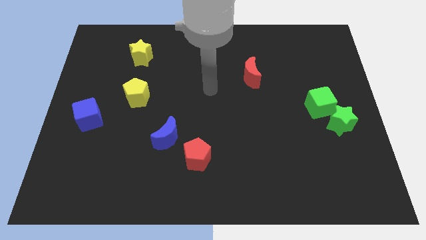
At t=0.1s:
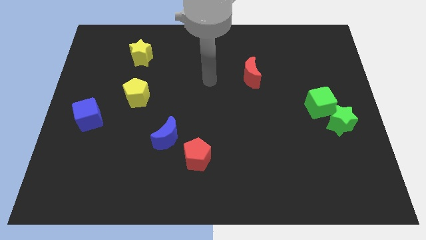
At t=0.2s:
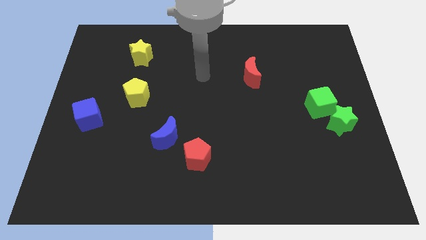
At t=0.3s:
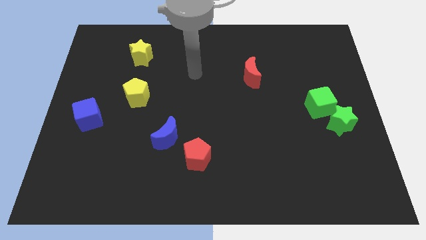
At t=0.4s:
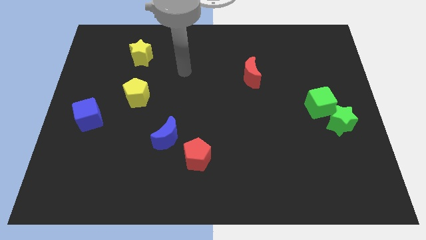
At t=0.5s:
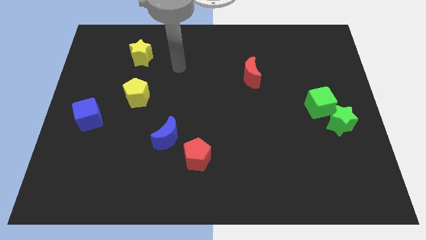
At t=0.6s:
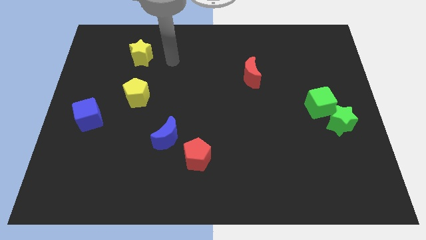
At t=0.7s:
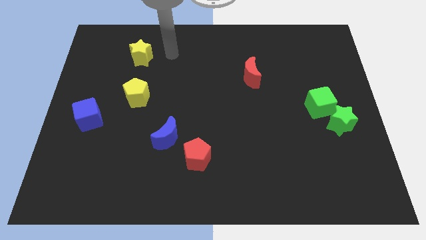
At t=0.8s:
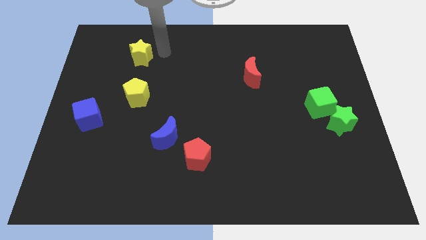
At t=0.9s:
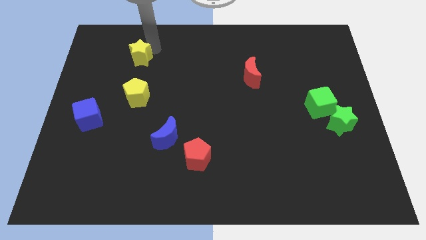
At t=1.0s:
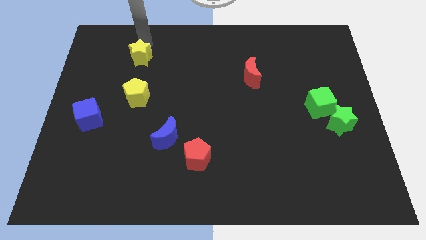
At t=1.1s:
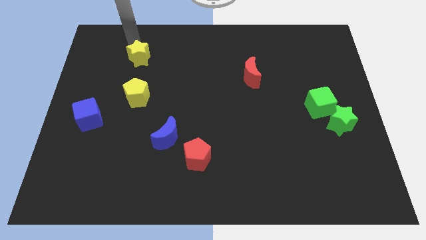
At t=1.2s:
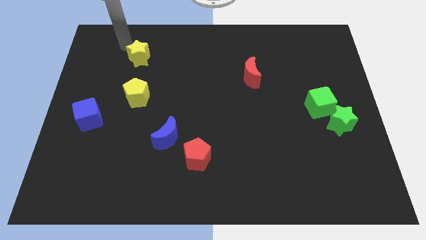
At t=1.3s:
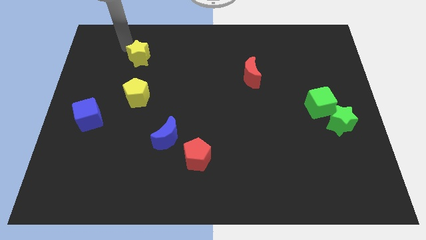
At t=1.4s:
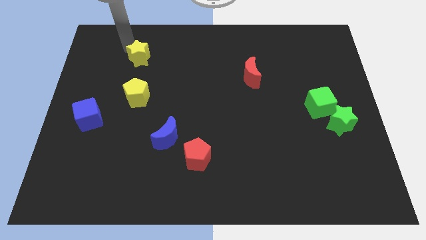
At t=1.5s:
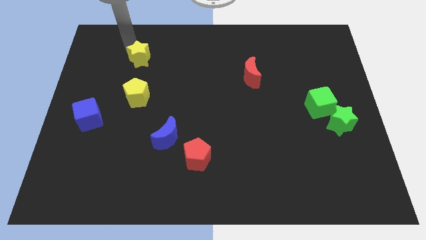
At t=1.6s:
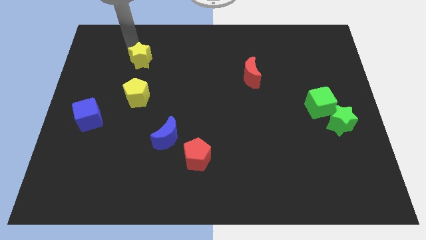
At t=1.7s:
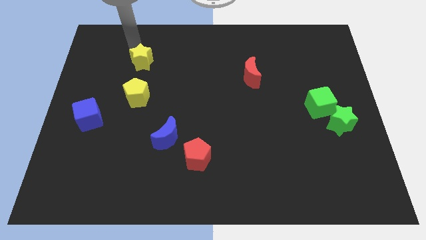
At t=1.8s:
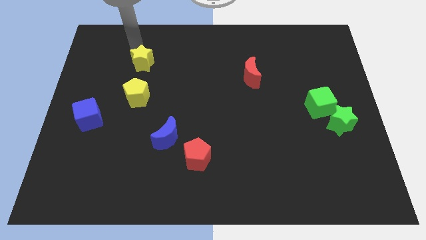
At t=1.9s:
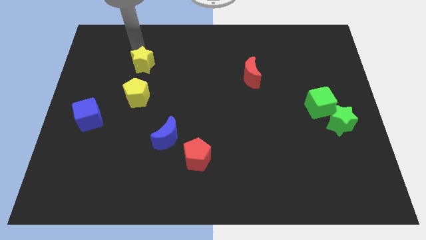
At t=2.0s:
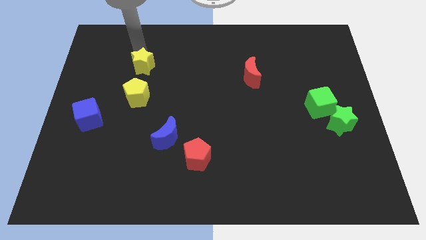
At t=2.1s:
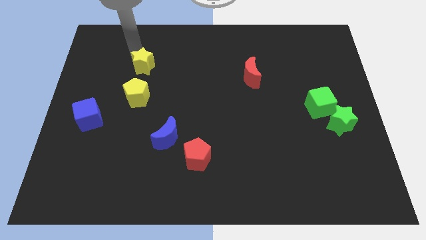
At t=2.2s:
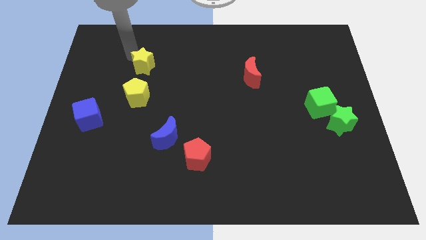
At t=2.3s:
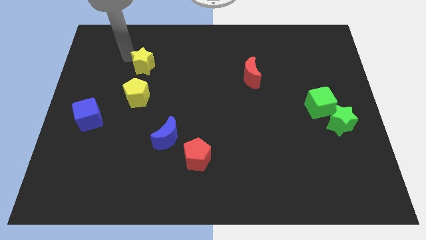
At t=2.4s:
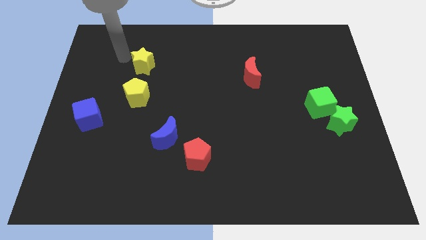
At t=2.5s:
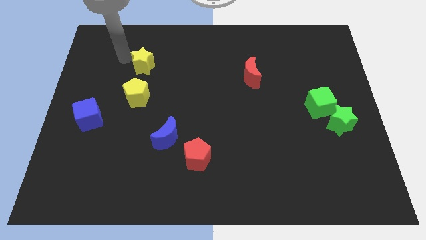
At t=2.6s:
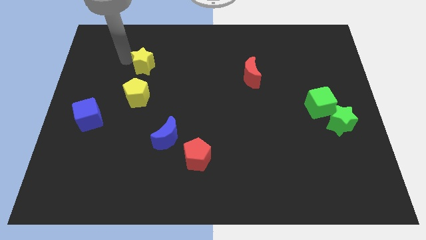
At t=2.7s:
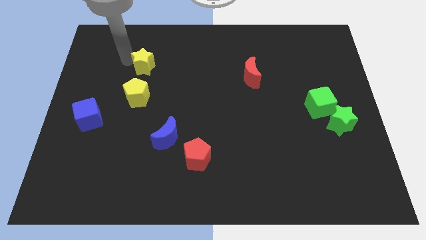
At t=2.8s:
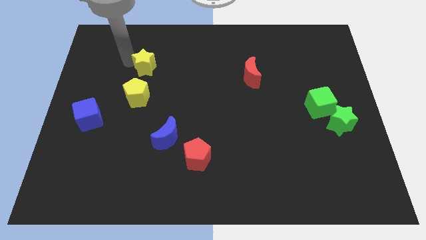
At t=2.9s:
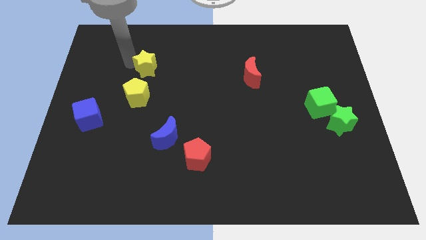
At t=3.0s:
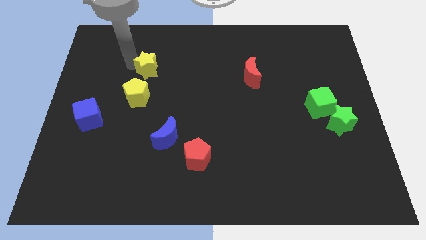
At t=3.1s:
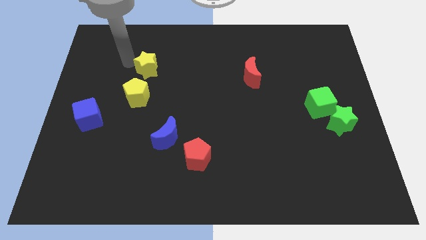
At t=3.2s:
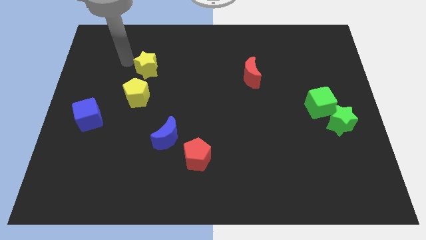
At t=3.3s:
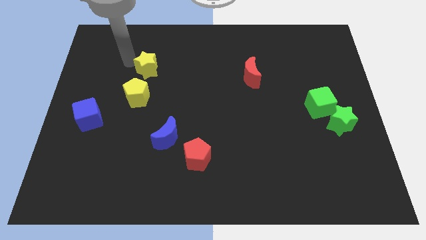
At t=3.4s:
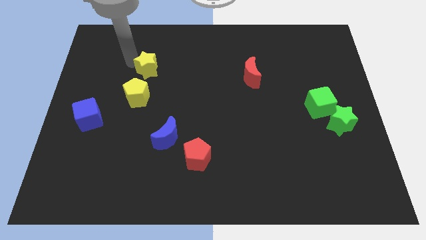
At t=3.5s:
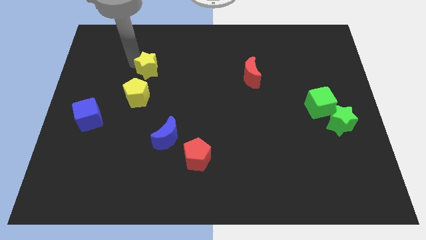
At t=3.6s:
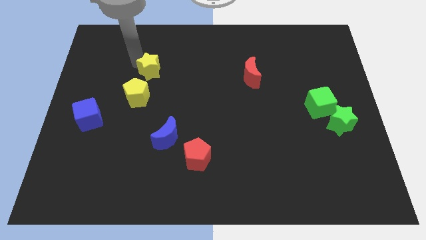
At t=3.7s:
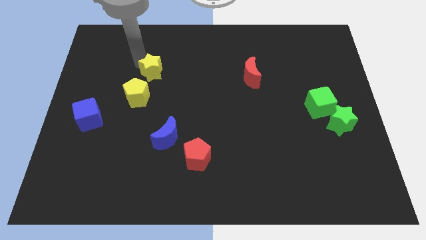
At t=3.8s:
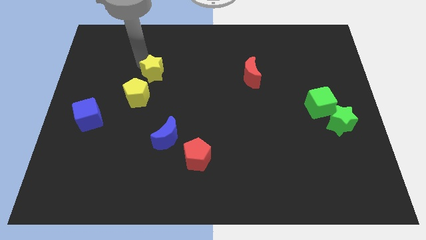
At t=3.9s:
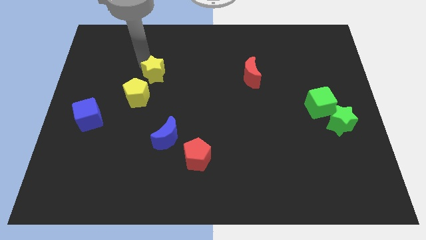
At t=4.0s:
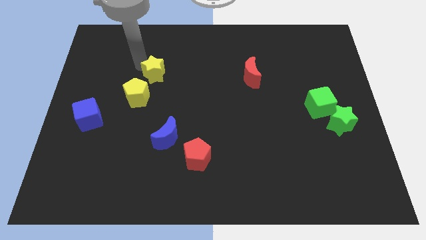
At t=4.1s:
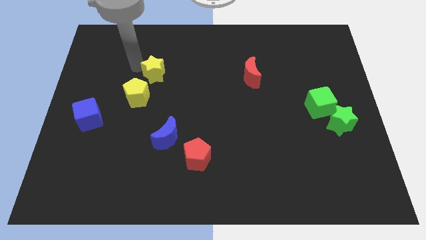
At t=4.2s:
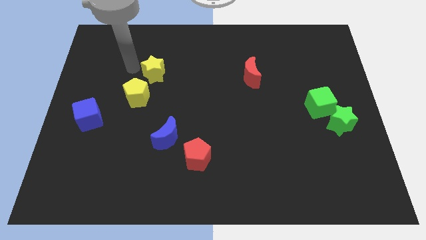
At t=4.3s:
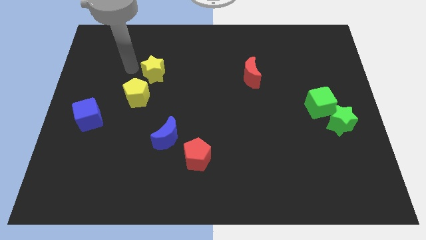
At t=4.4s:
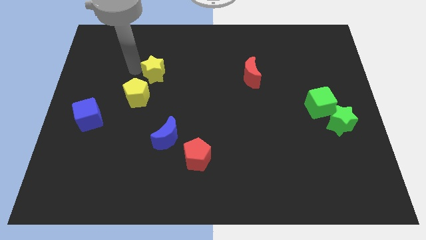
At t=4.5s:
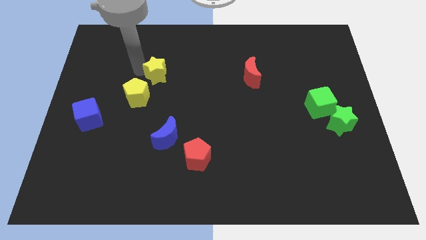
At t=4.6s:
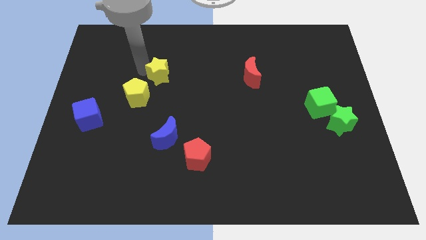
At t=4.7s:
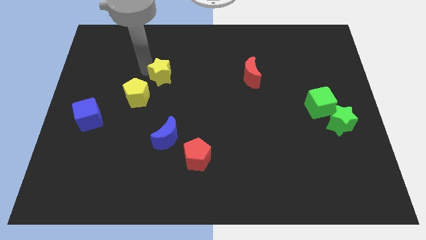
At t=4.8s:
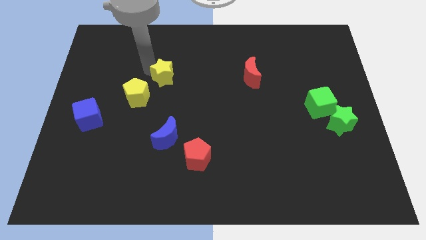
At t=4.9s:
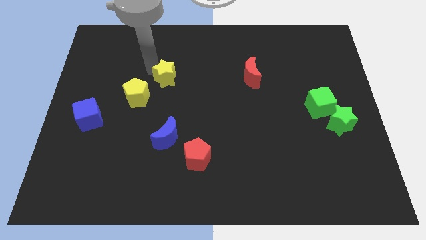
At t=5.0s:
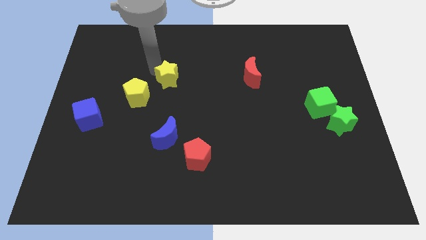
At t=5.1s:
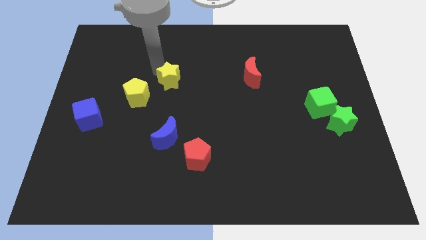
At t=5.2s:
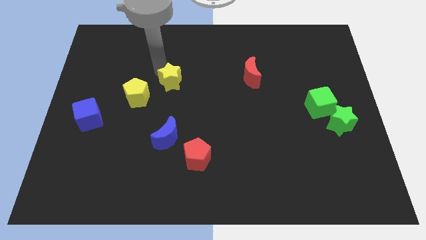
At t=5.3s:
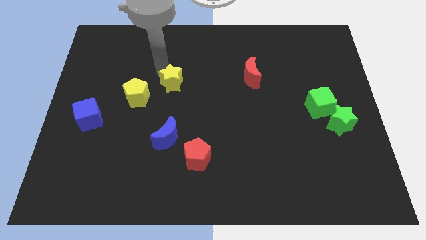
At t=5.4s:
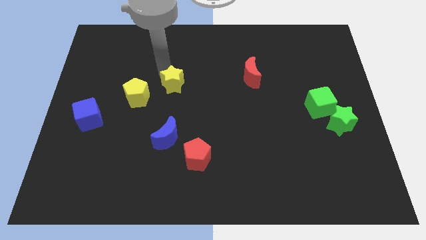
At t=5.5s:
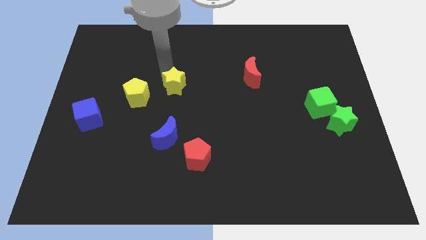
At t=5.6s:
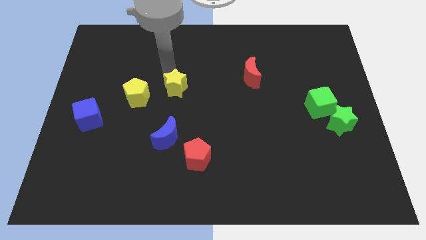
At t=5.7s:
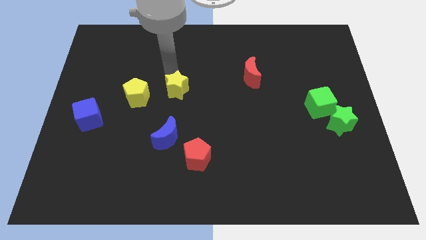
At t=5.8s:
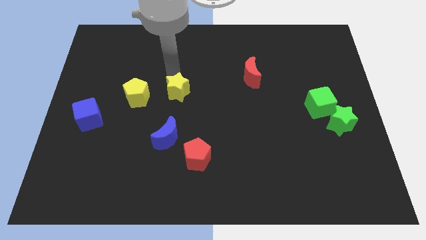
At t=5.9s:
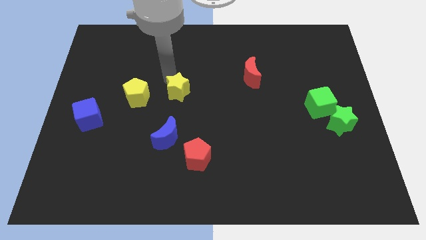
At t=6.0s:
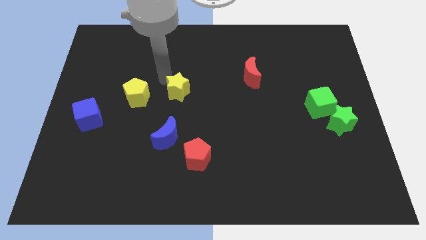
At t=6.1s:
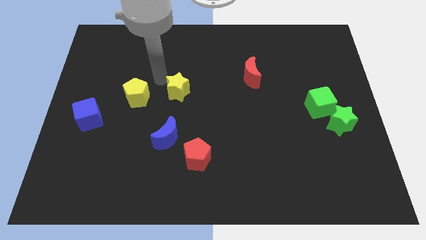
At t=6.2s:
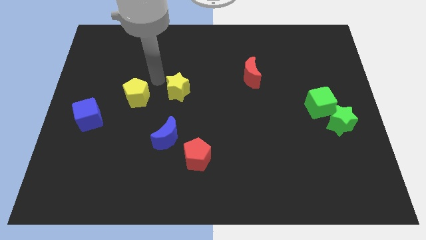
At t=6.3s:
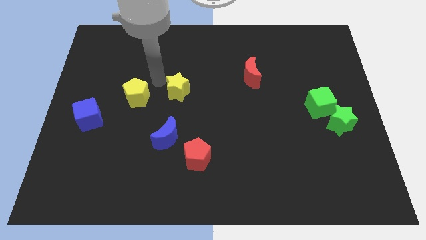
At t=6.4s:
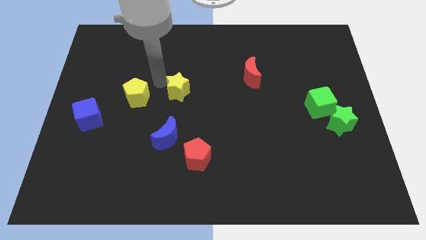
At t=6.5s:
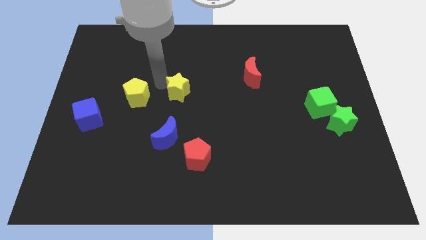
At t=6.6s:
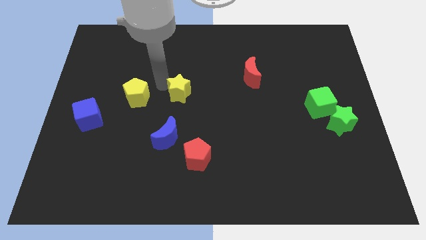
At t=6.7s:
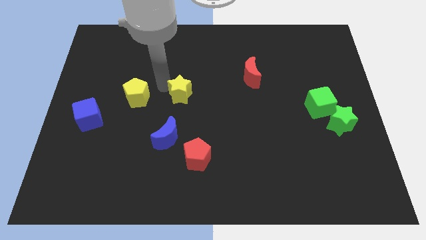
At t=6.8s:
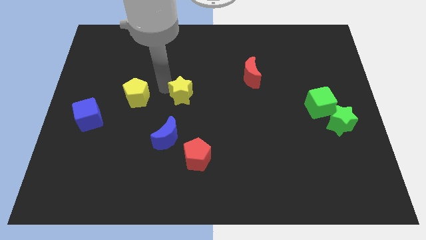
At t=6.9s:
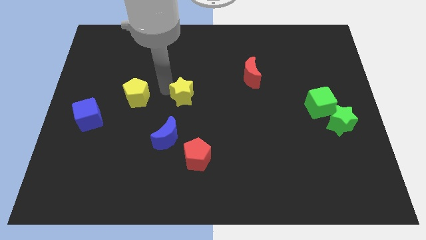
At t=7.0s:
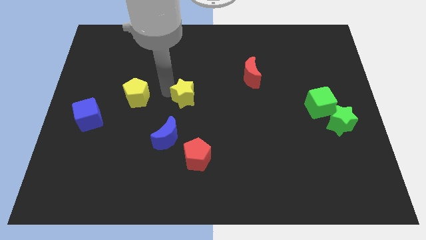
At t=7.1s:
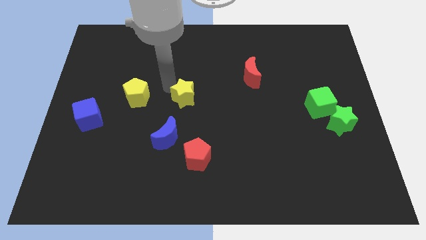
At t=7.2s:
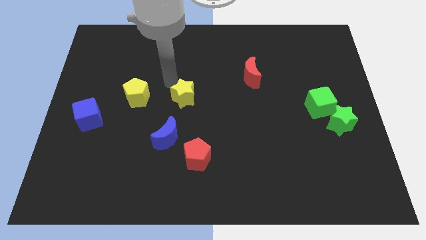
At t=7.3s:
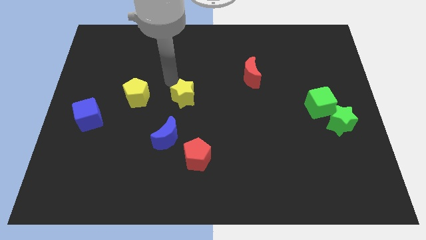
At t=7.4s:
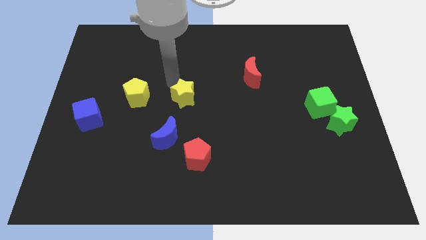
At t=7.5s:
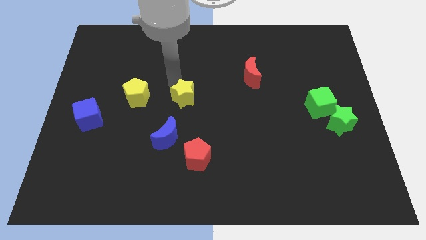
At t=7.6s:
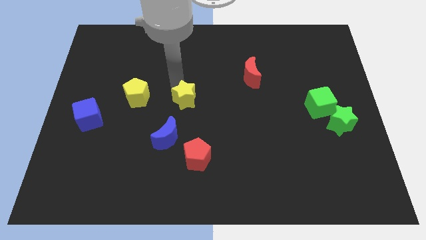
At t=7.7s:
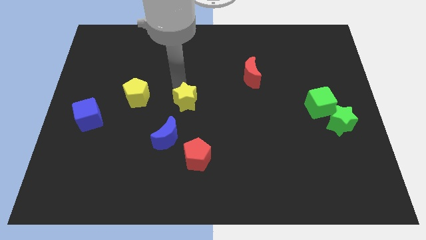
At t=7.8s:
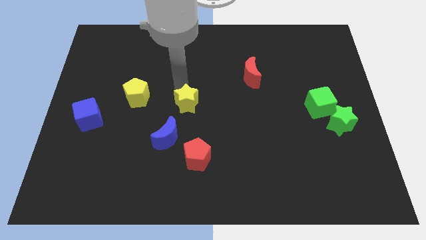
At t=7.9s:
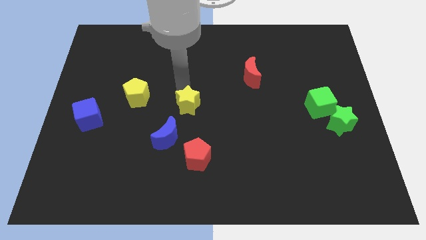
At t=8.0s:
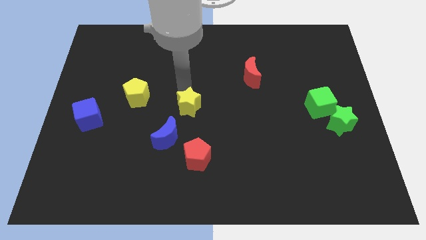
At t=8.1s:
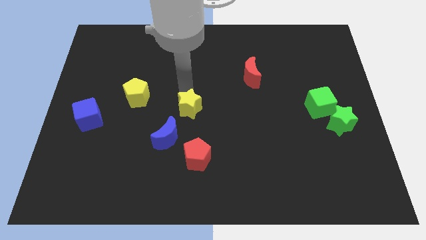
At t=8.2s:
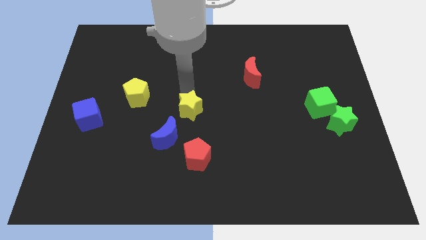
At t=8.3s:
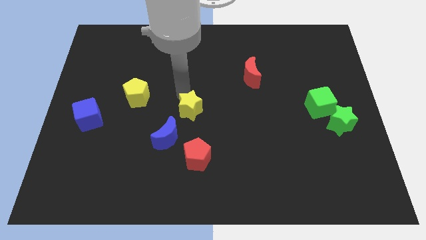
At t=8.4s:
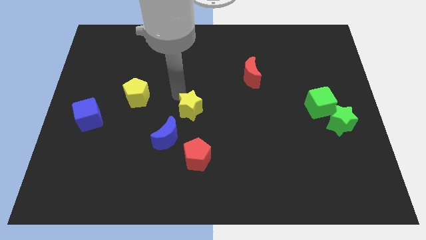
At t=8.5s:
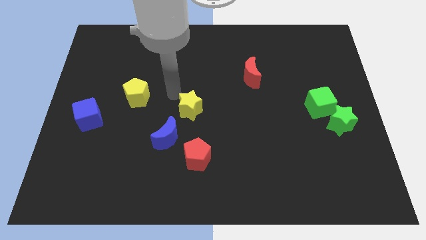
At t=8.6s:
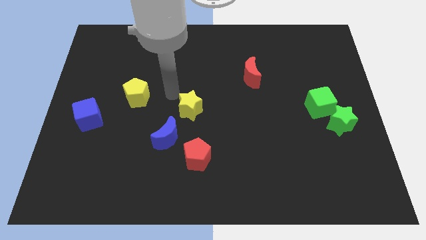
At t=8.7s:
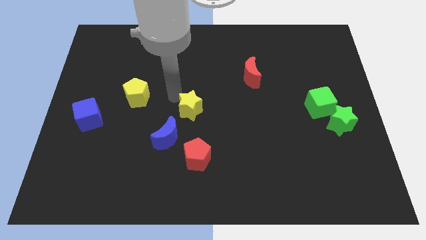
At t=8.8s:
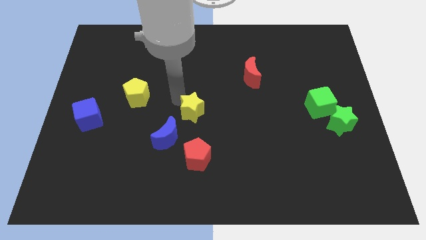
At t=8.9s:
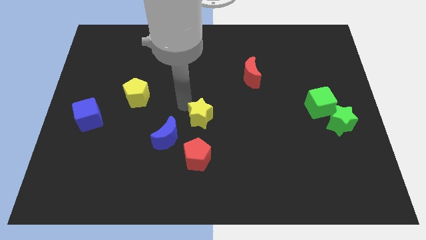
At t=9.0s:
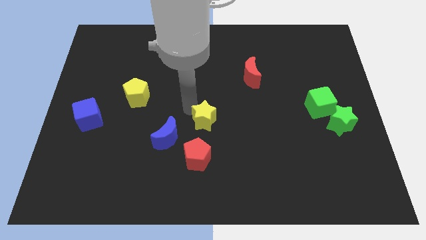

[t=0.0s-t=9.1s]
put the yellow star just right of the blue moon
